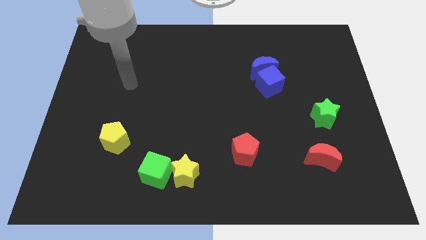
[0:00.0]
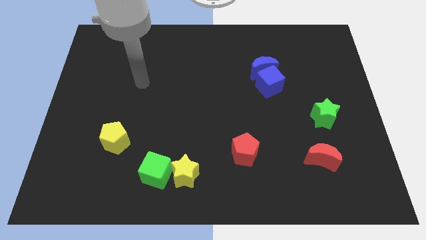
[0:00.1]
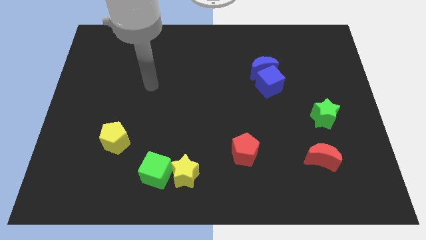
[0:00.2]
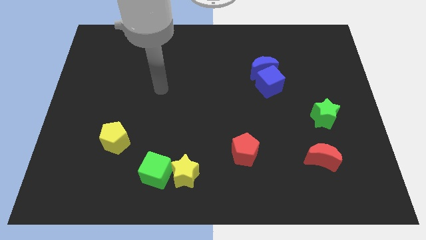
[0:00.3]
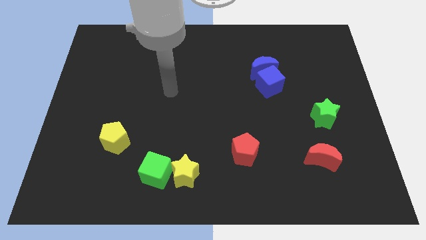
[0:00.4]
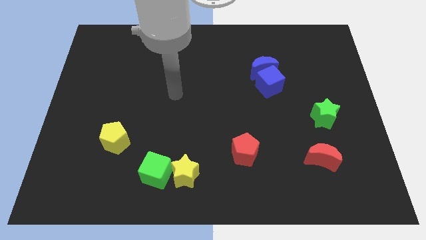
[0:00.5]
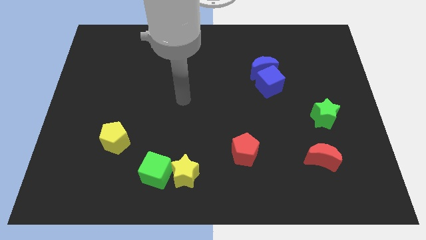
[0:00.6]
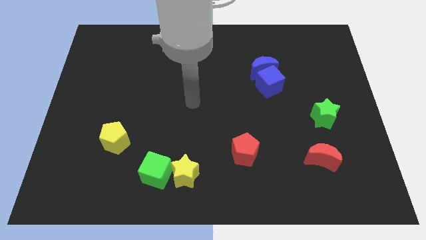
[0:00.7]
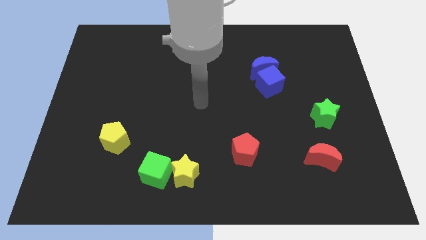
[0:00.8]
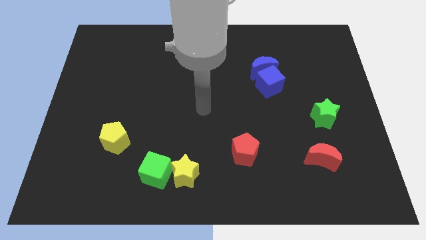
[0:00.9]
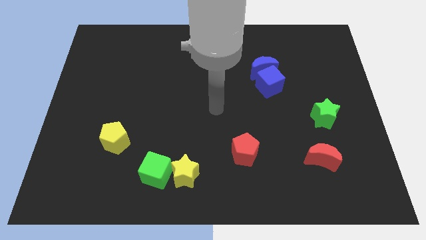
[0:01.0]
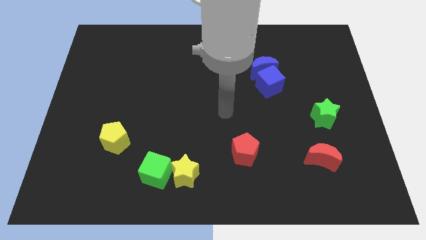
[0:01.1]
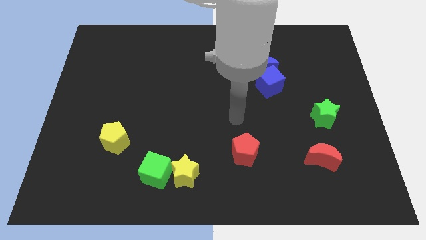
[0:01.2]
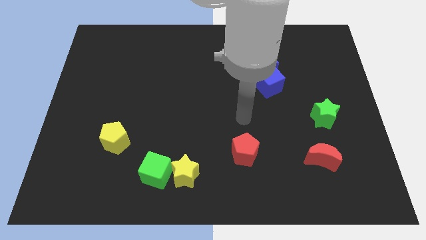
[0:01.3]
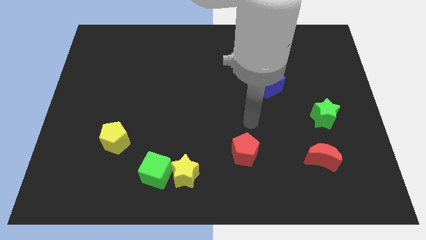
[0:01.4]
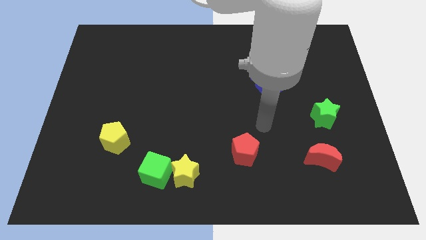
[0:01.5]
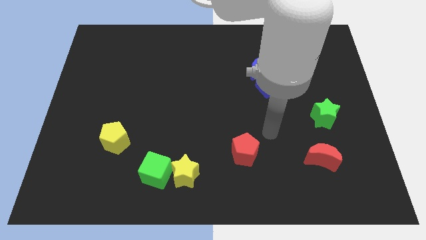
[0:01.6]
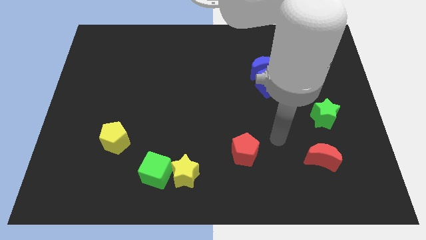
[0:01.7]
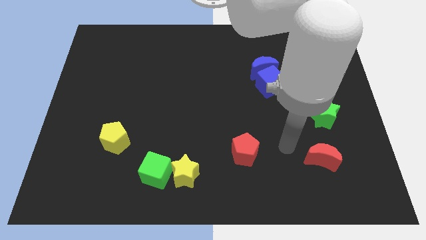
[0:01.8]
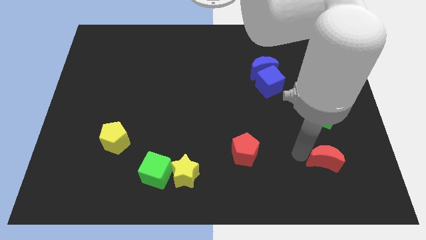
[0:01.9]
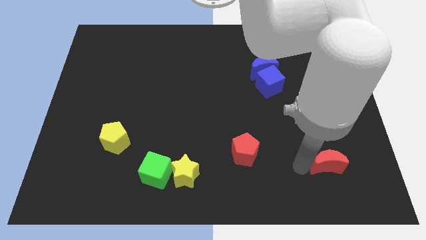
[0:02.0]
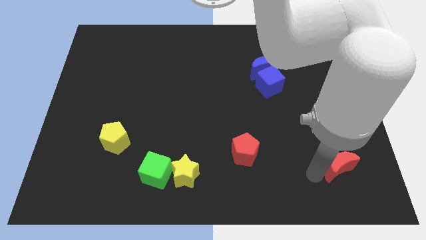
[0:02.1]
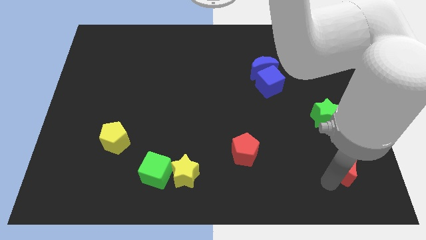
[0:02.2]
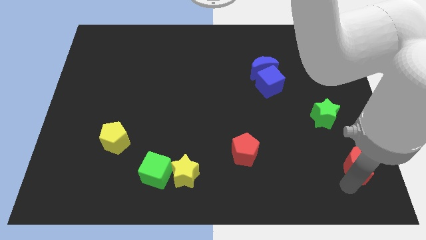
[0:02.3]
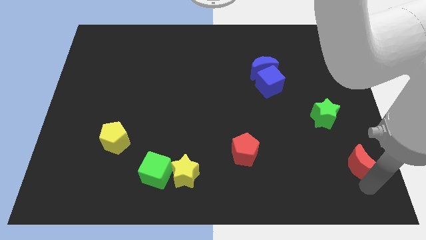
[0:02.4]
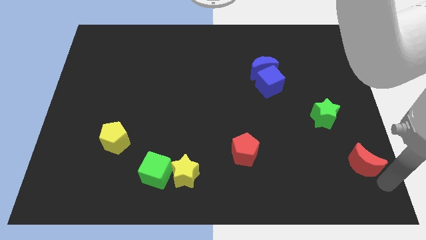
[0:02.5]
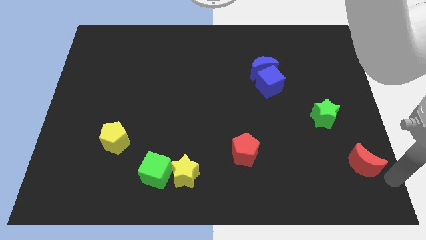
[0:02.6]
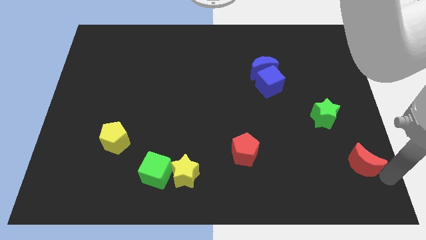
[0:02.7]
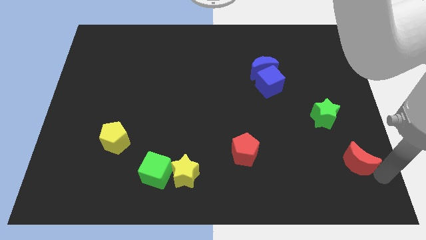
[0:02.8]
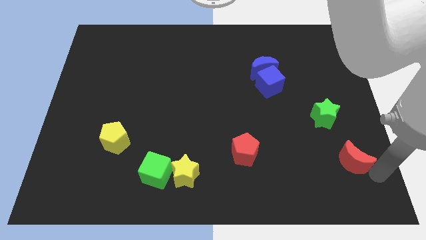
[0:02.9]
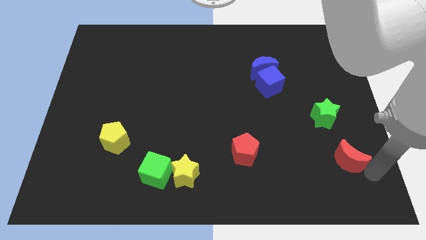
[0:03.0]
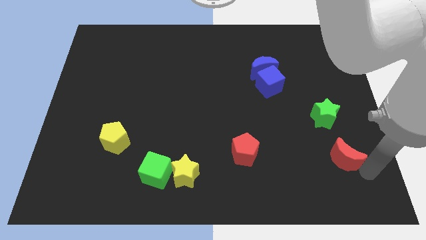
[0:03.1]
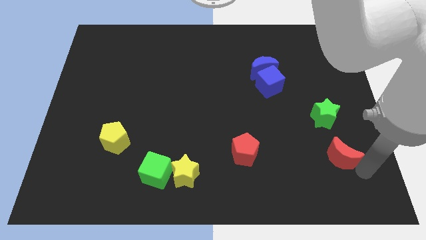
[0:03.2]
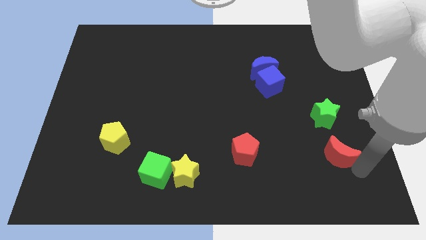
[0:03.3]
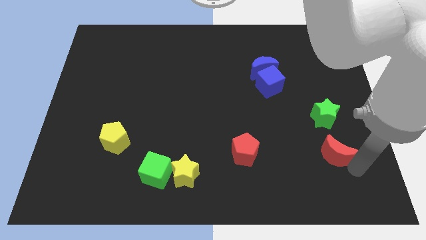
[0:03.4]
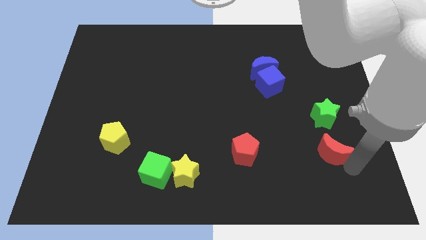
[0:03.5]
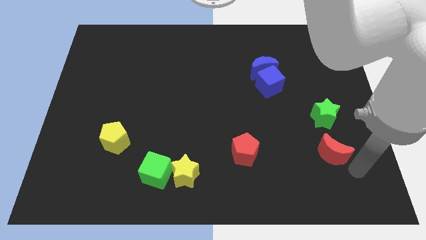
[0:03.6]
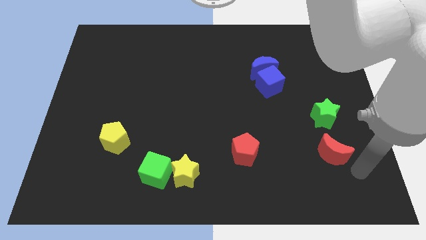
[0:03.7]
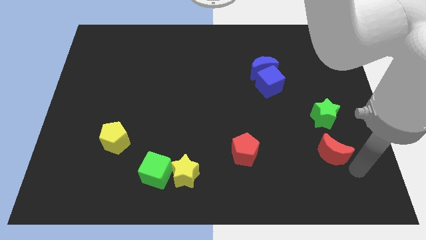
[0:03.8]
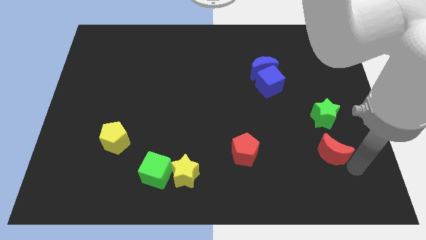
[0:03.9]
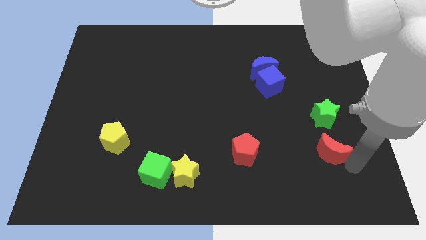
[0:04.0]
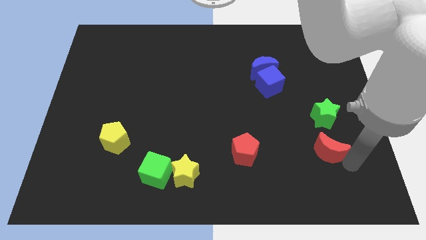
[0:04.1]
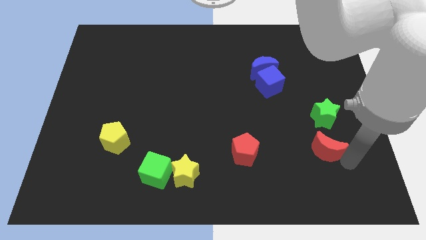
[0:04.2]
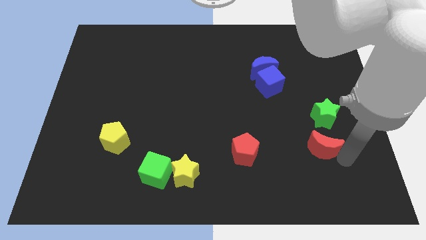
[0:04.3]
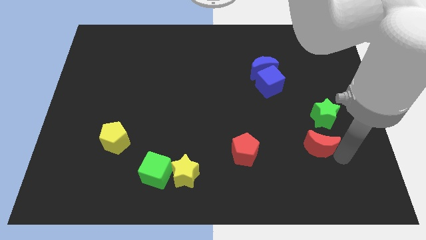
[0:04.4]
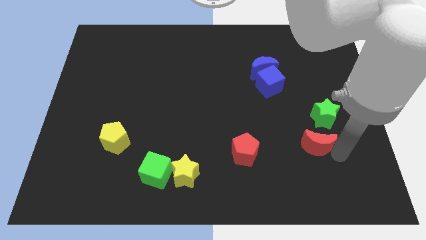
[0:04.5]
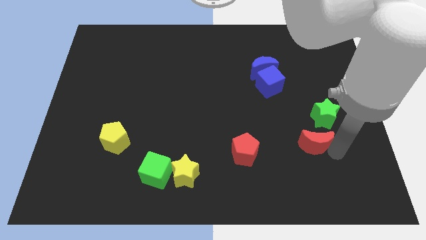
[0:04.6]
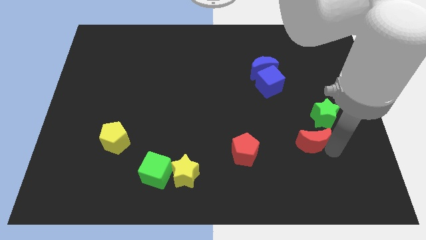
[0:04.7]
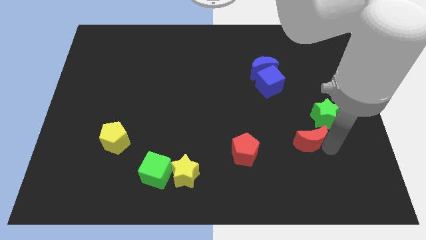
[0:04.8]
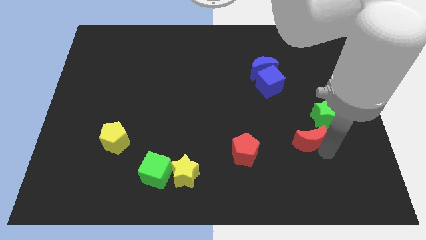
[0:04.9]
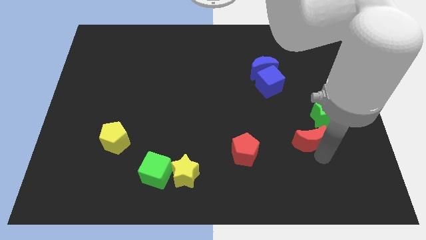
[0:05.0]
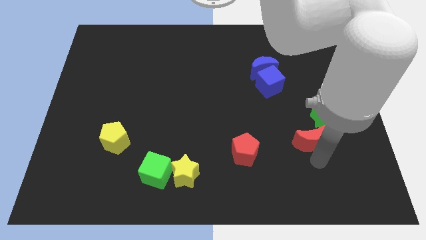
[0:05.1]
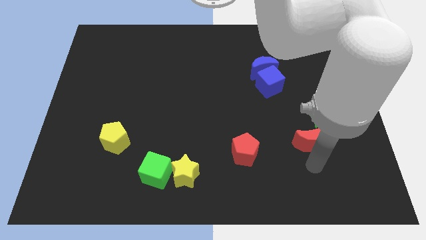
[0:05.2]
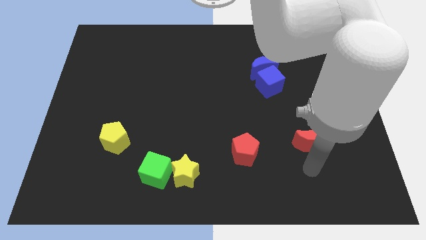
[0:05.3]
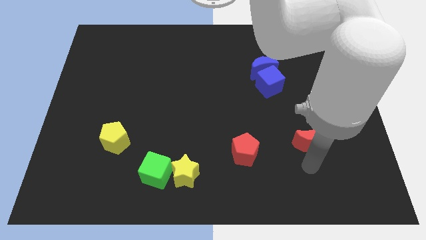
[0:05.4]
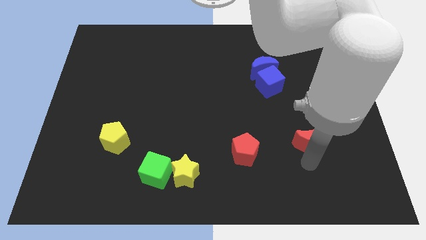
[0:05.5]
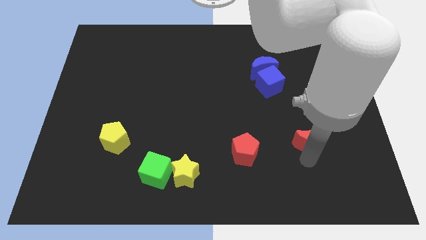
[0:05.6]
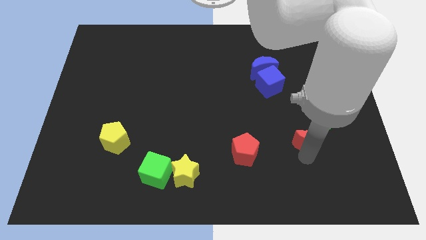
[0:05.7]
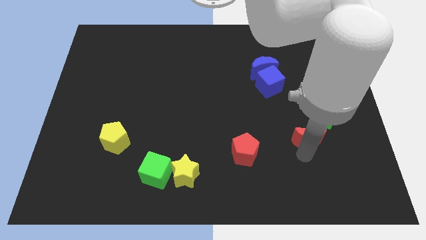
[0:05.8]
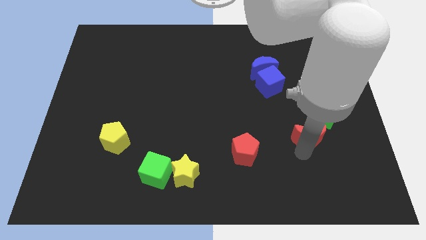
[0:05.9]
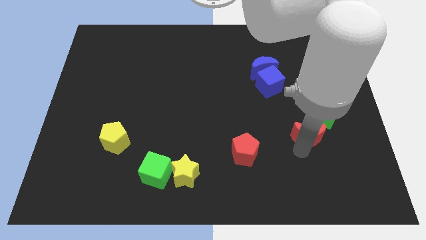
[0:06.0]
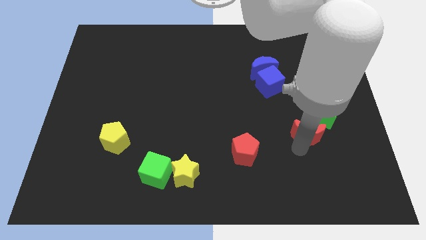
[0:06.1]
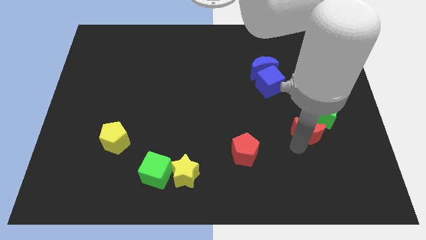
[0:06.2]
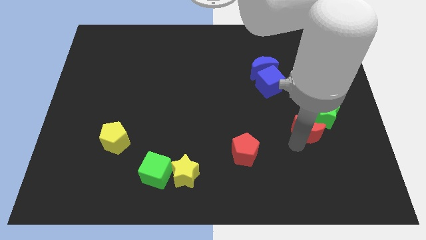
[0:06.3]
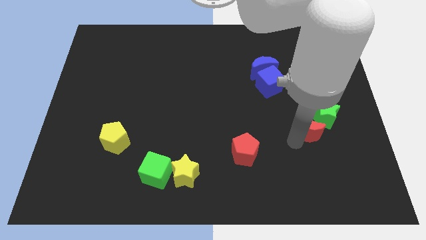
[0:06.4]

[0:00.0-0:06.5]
push the red moon up slightly

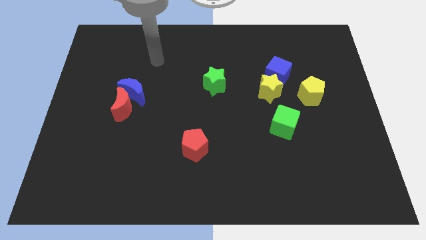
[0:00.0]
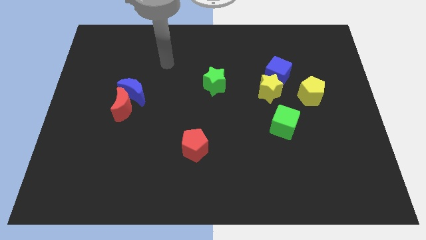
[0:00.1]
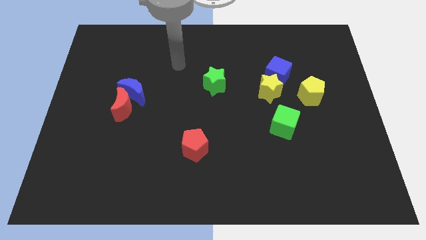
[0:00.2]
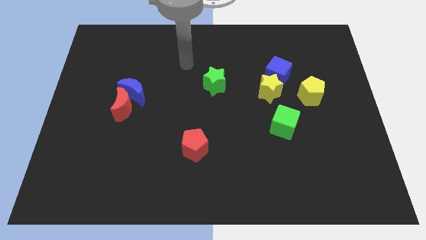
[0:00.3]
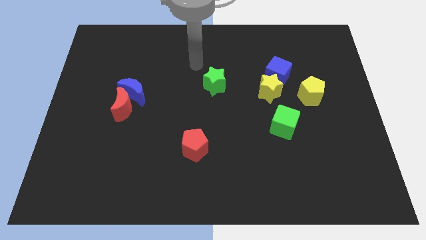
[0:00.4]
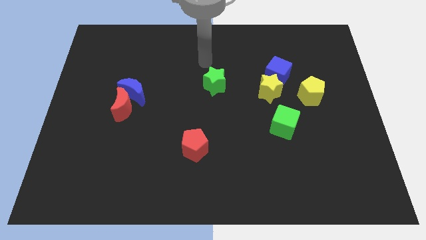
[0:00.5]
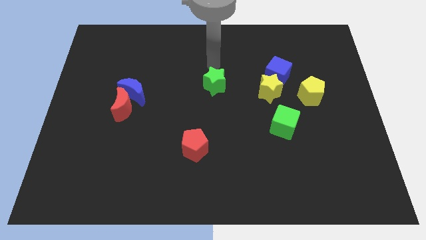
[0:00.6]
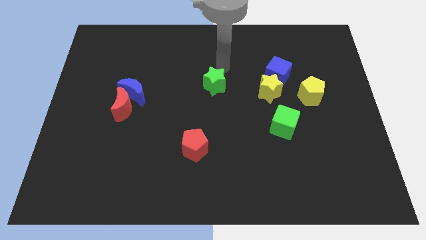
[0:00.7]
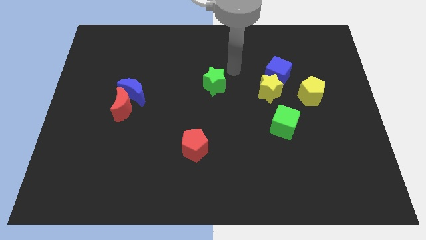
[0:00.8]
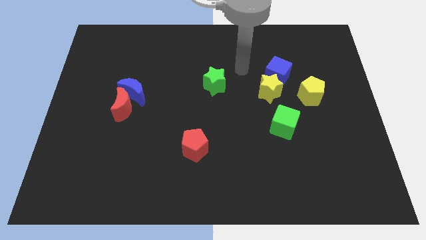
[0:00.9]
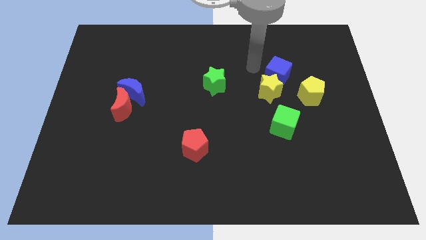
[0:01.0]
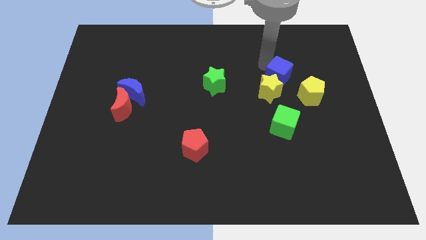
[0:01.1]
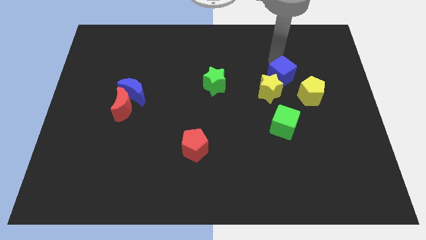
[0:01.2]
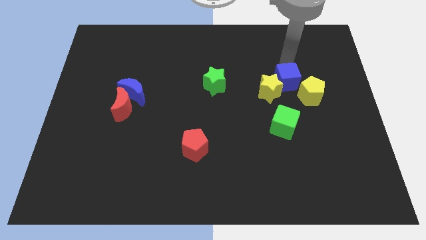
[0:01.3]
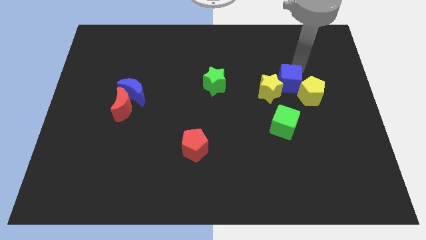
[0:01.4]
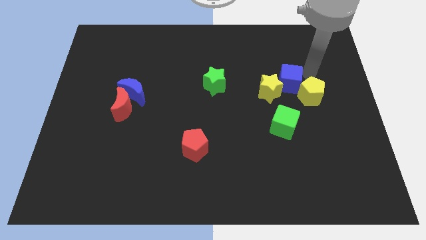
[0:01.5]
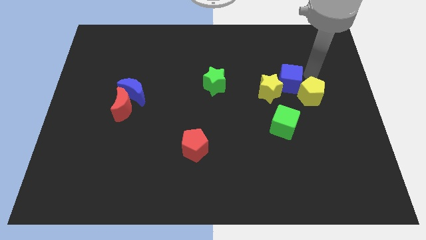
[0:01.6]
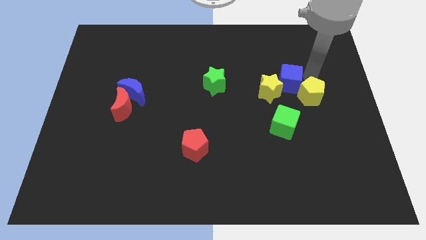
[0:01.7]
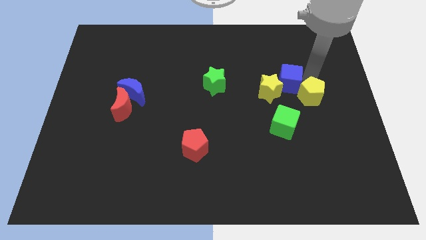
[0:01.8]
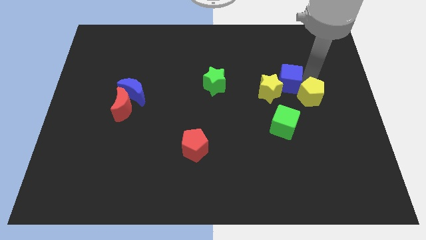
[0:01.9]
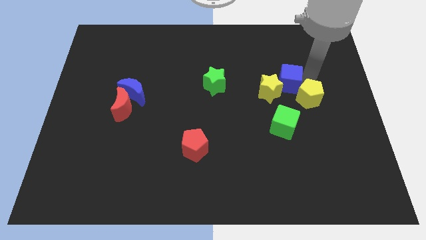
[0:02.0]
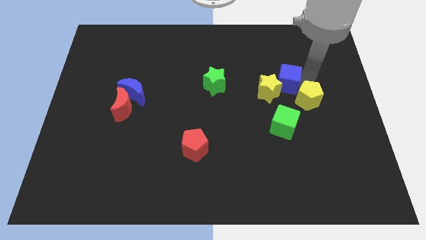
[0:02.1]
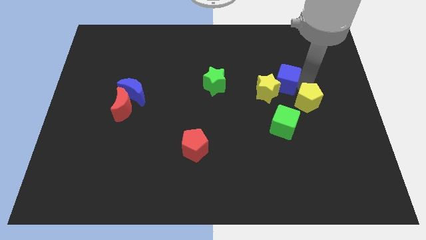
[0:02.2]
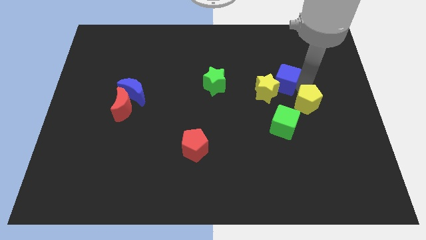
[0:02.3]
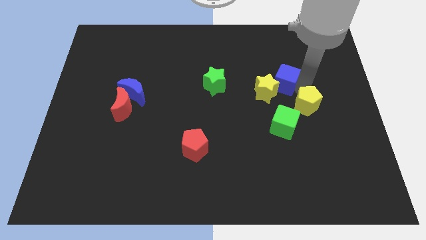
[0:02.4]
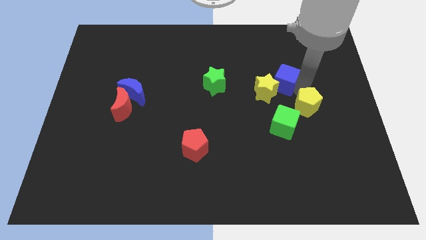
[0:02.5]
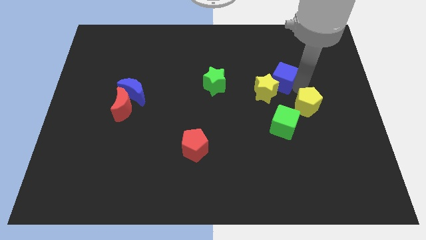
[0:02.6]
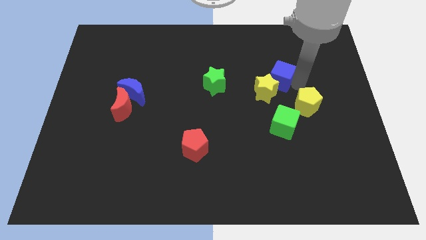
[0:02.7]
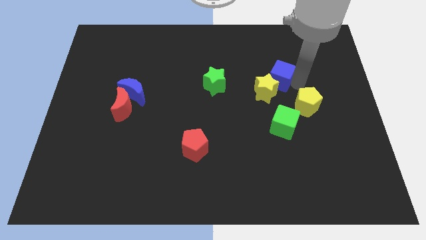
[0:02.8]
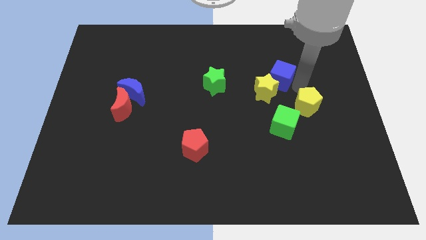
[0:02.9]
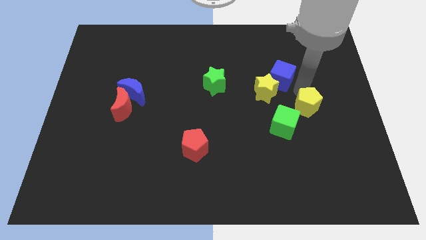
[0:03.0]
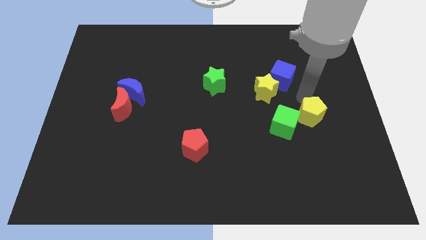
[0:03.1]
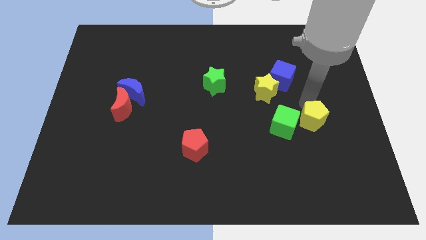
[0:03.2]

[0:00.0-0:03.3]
move the yellow pentagon somewhat down
